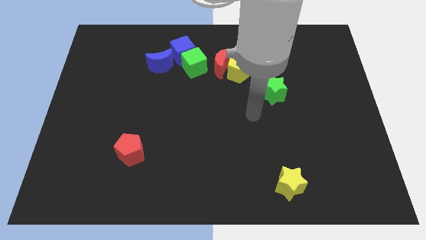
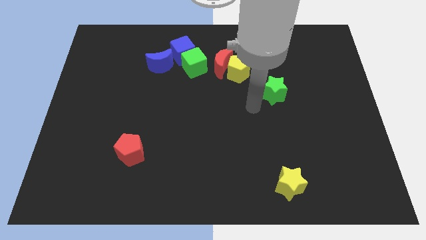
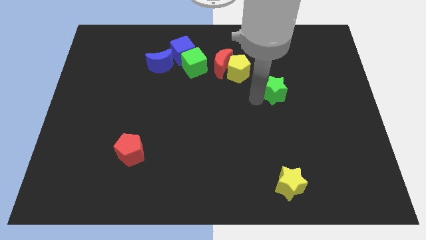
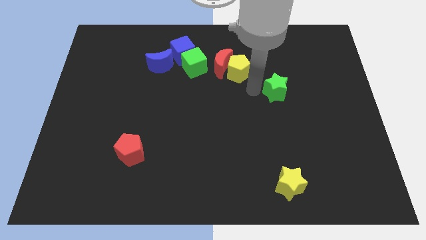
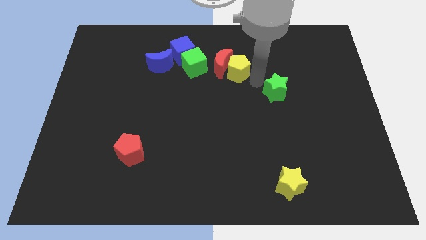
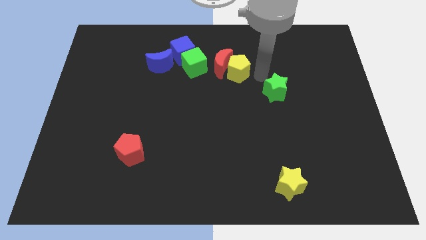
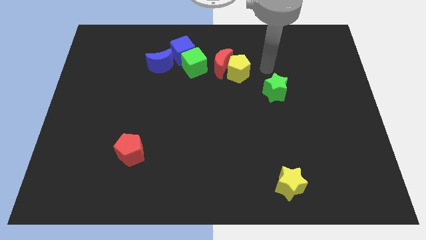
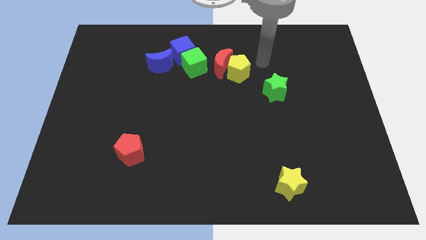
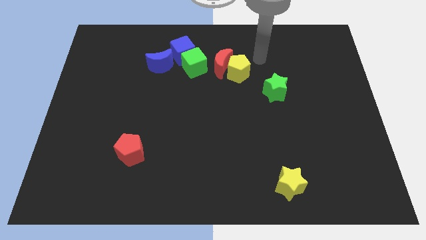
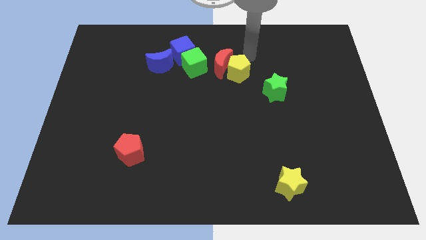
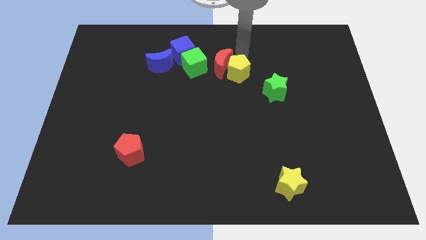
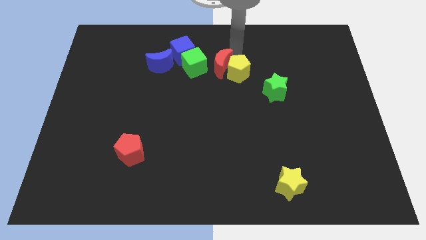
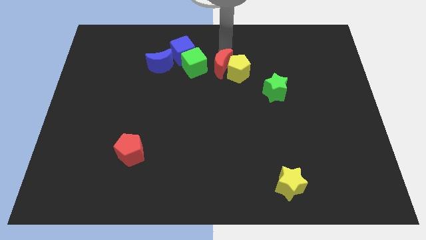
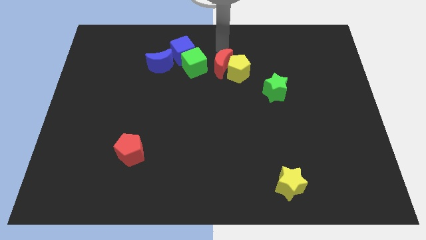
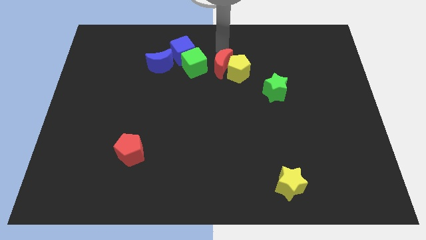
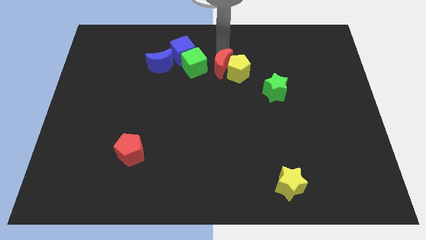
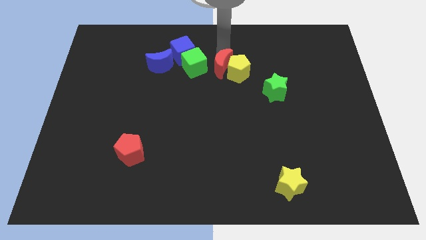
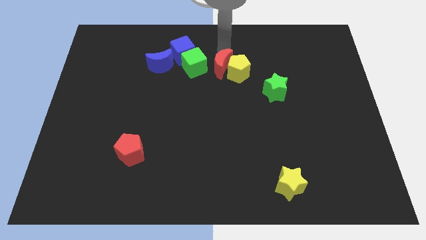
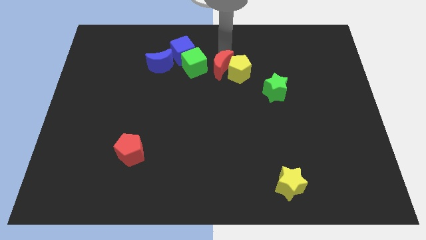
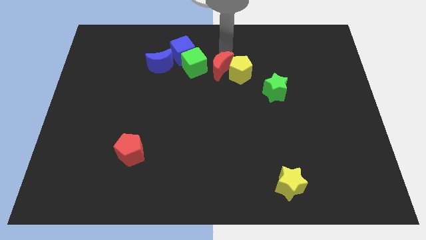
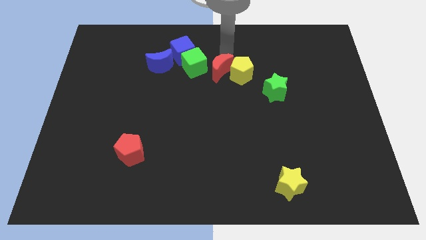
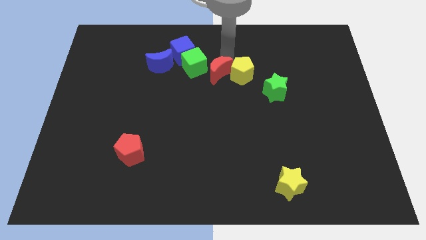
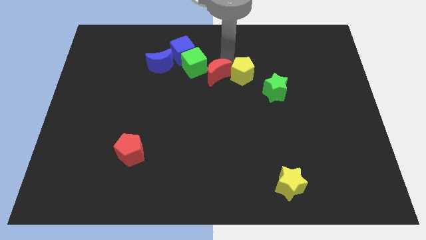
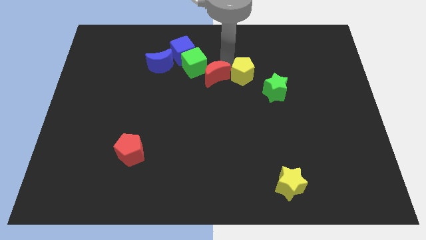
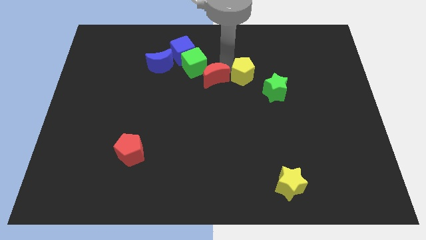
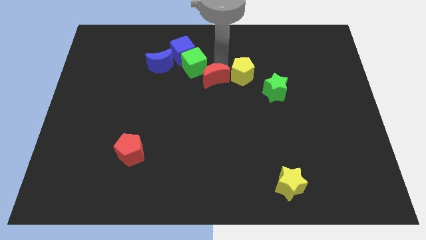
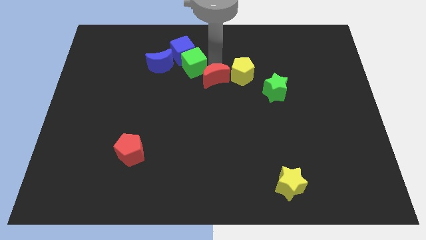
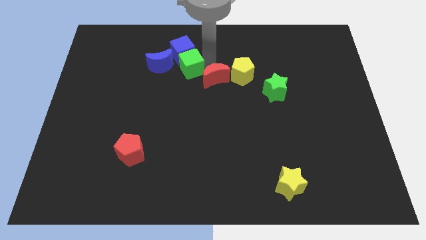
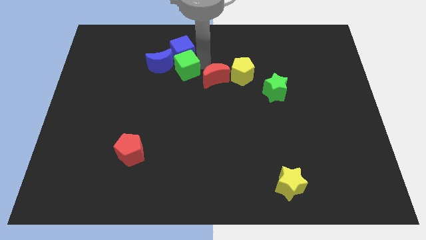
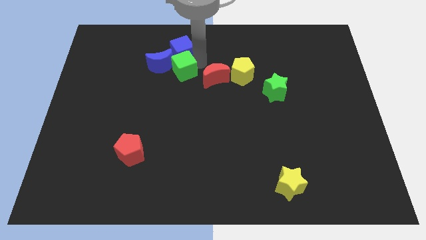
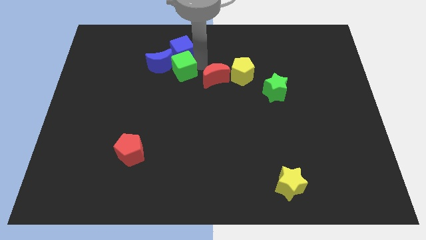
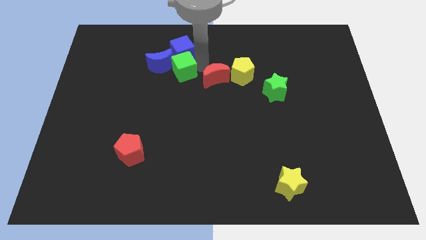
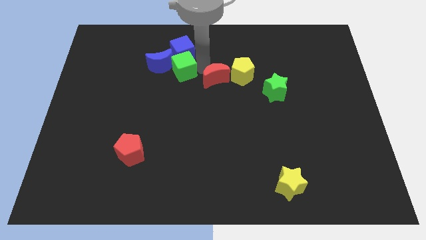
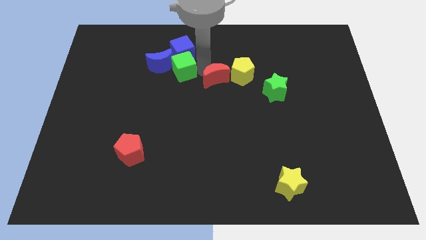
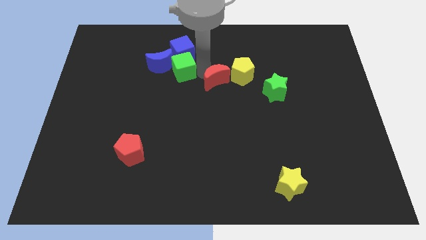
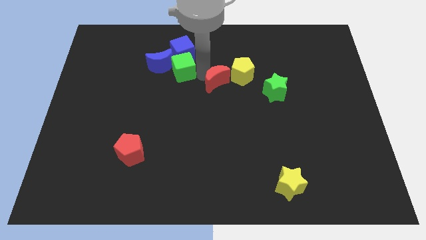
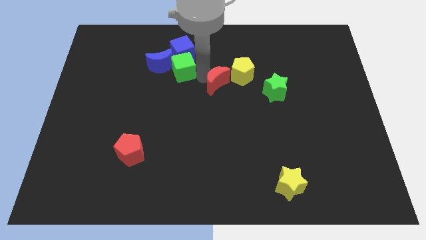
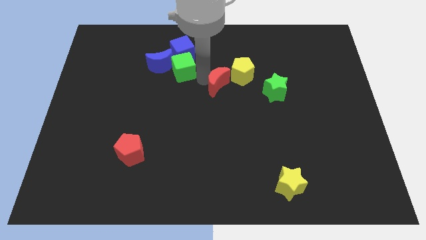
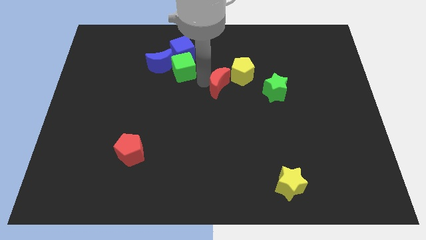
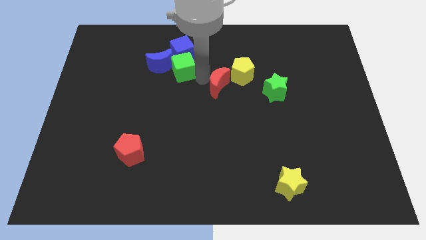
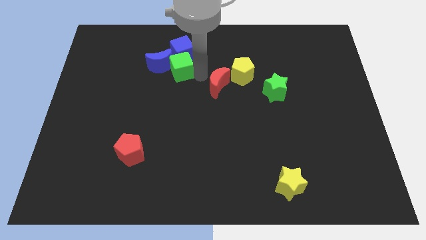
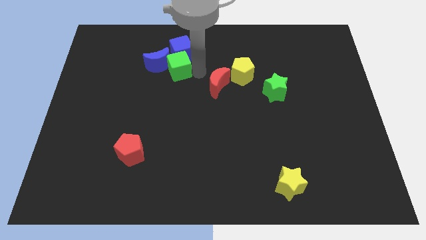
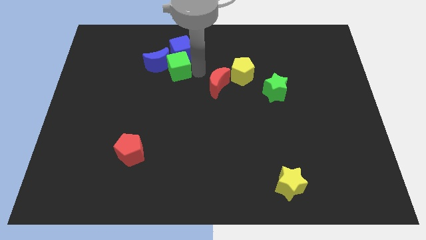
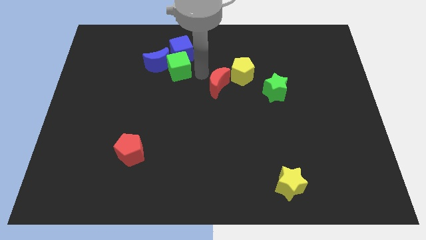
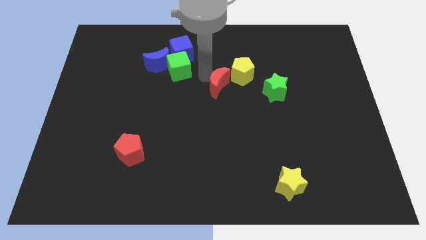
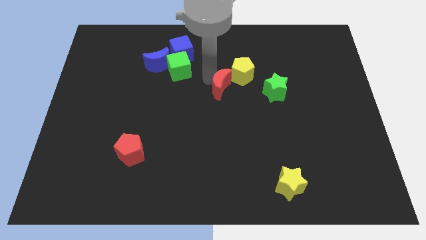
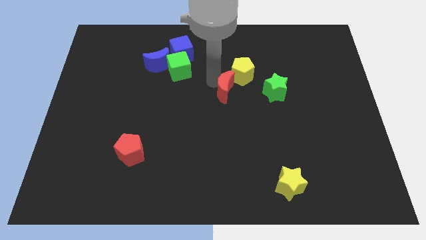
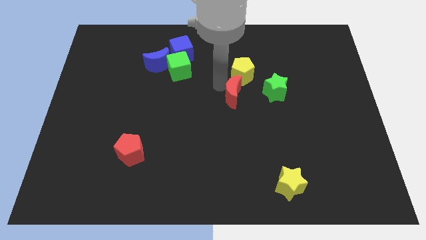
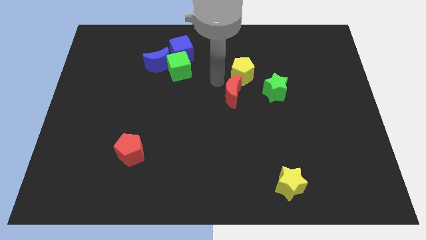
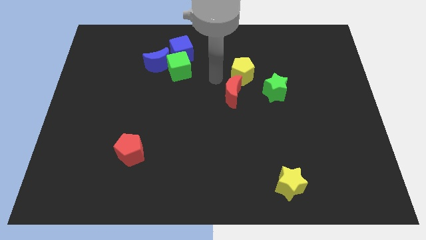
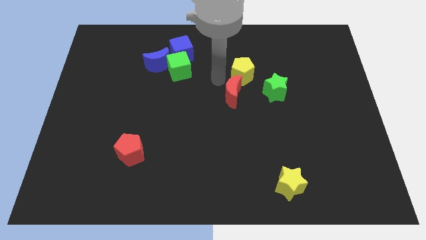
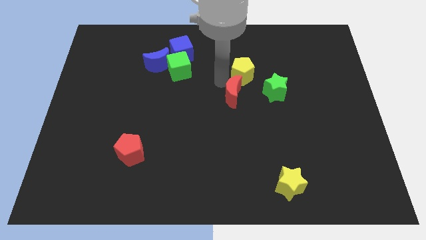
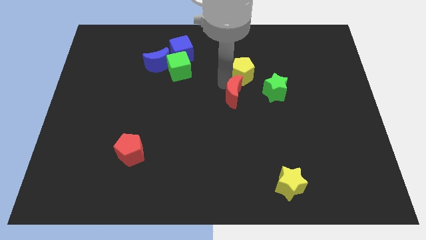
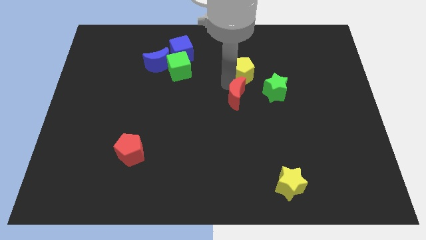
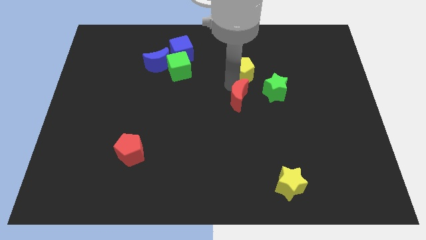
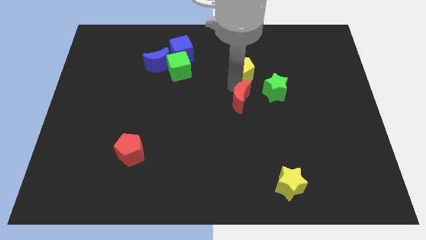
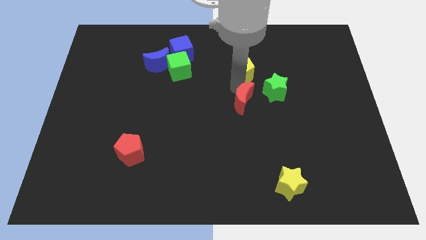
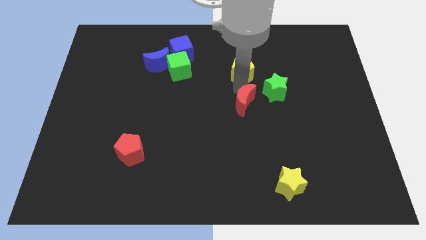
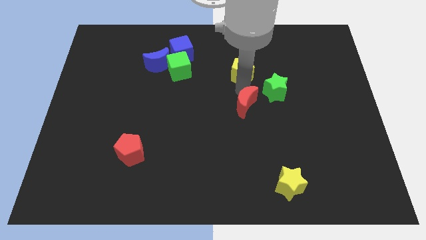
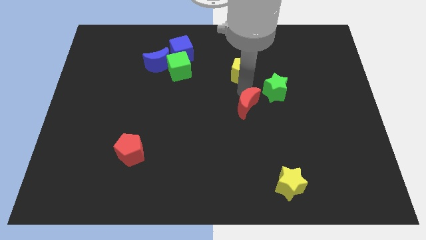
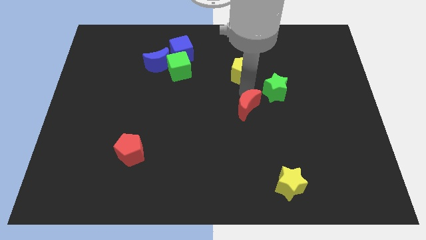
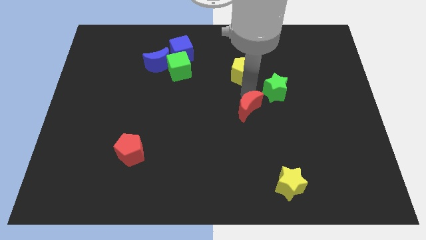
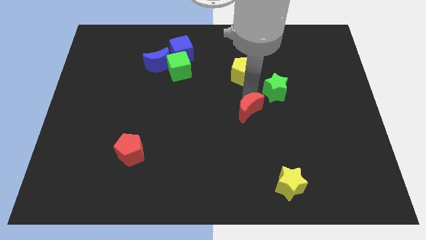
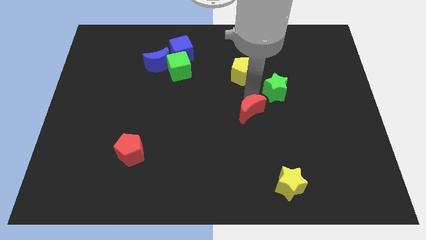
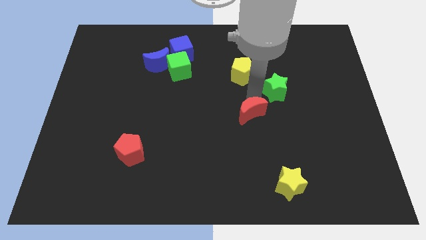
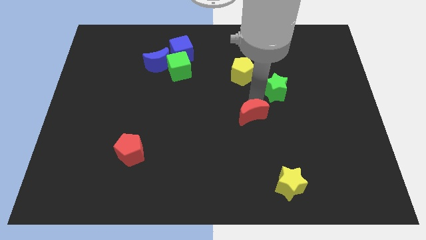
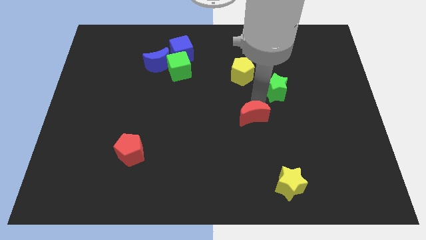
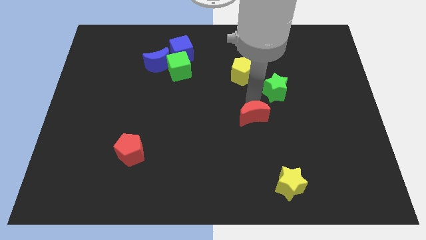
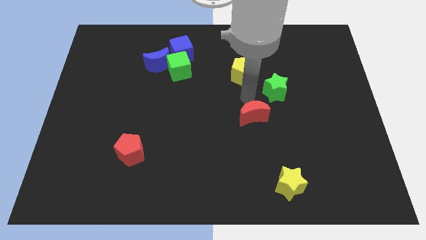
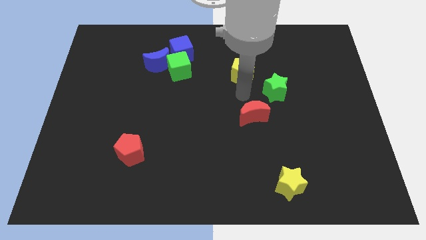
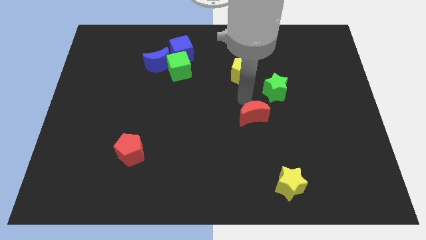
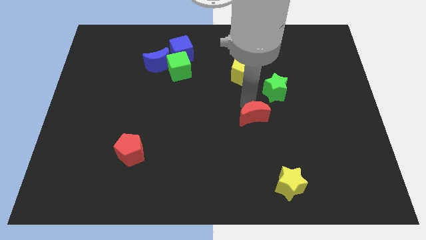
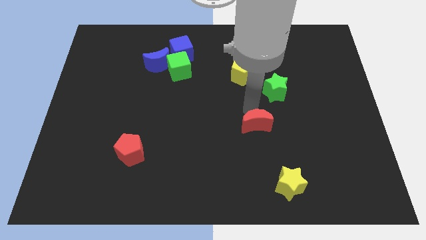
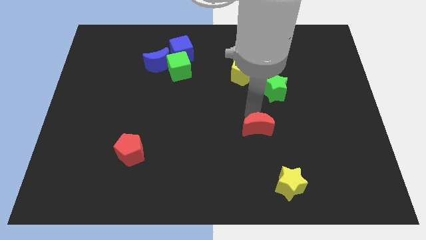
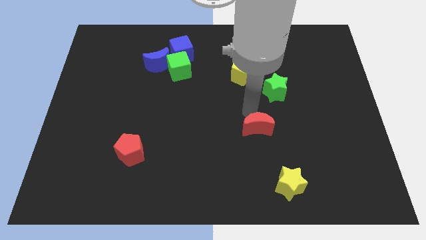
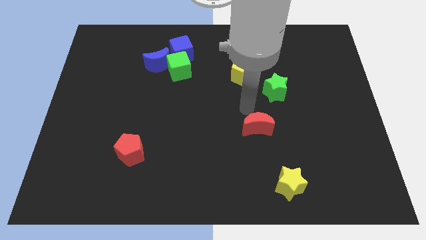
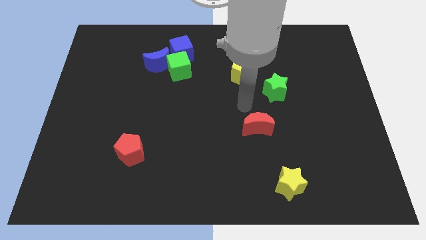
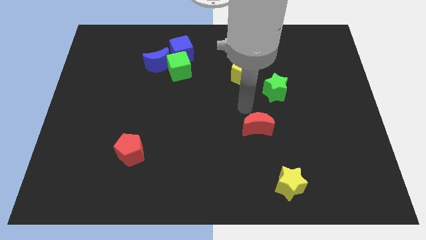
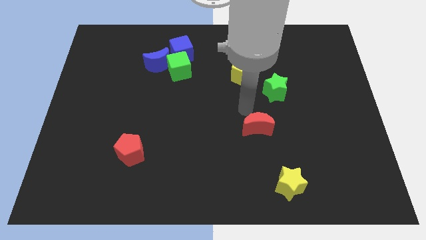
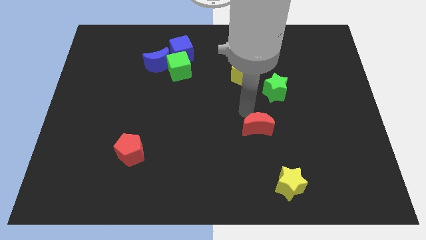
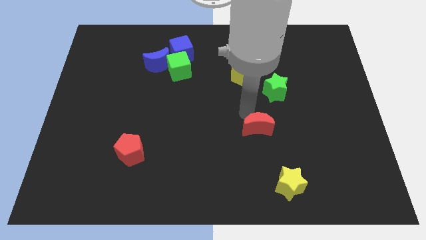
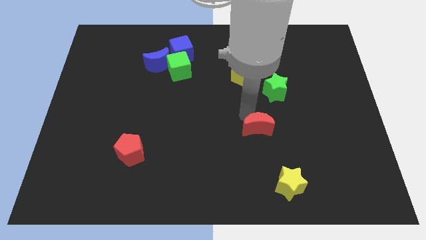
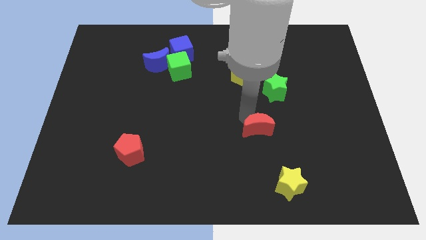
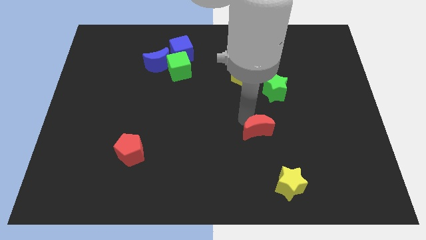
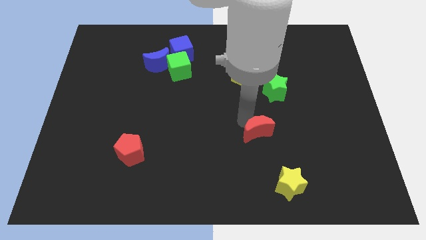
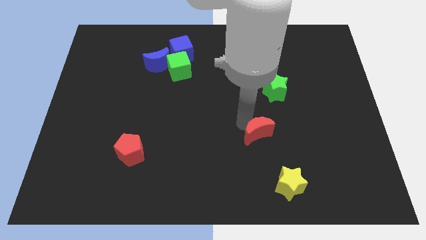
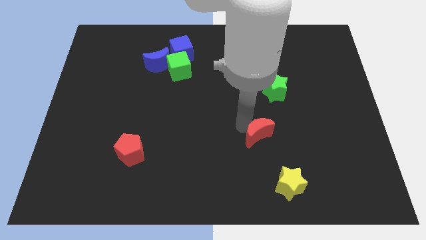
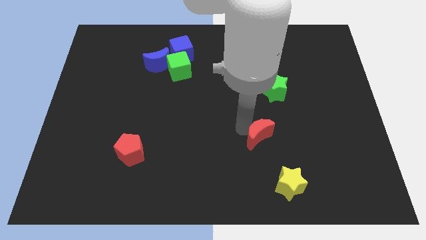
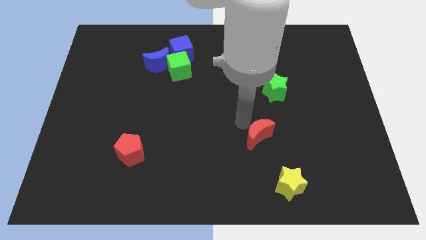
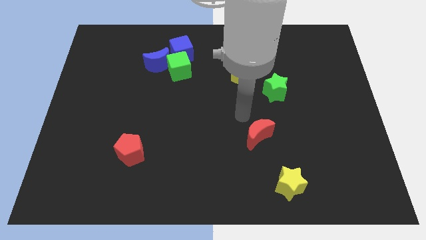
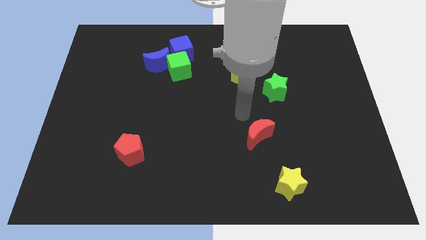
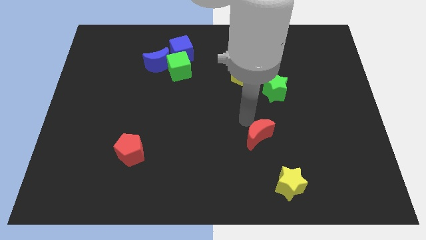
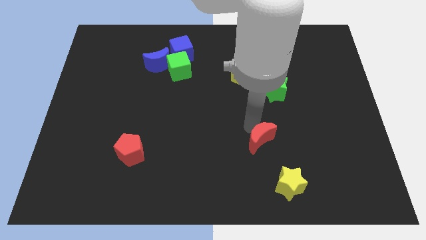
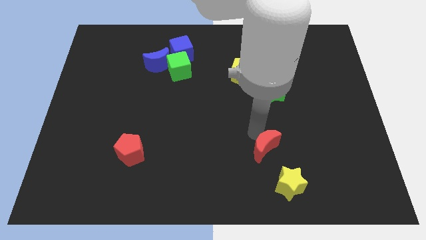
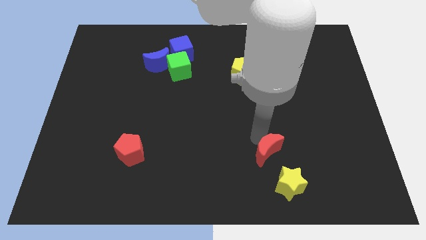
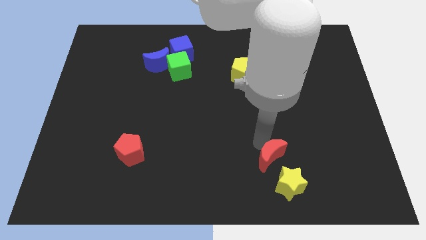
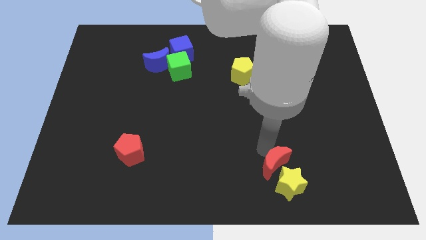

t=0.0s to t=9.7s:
move the red moon next to the yellow star
